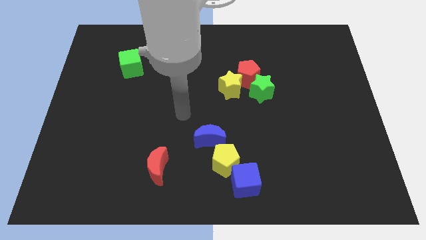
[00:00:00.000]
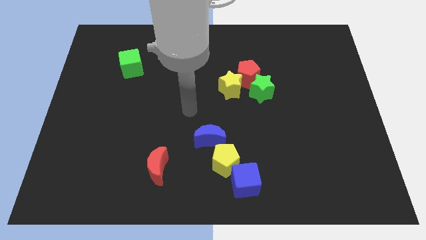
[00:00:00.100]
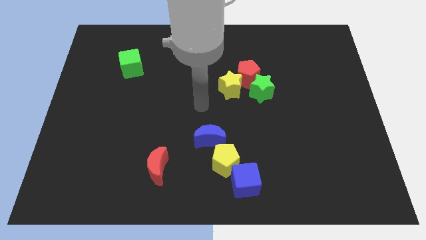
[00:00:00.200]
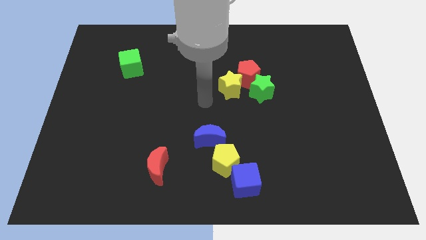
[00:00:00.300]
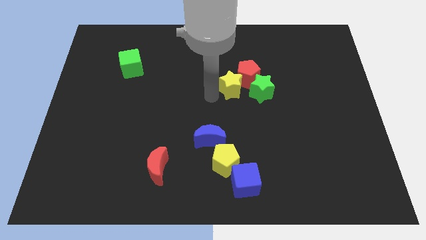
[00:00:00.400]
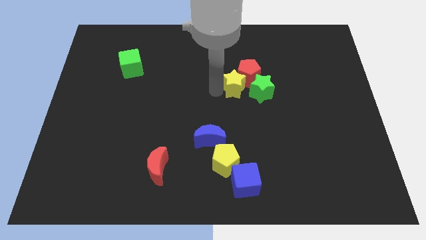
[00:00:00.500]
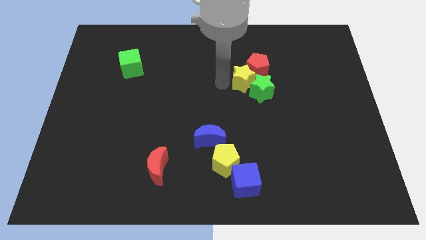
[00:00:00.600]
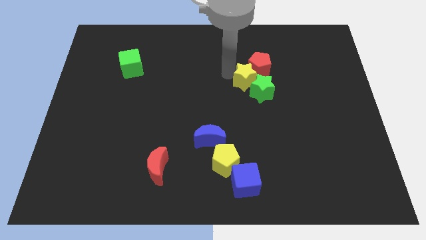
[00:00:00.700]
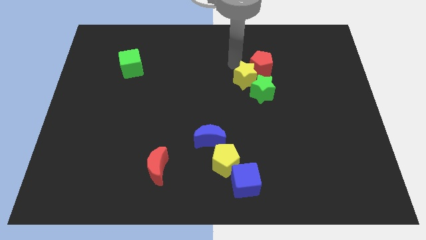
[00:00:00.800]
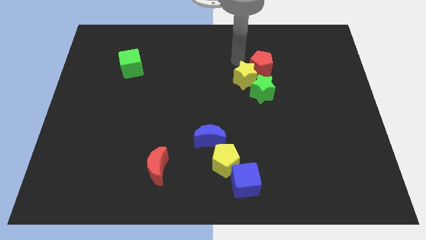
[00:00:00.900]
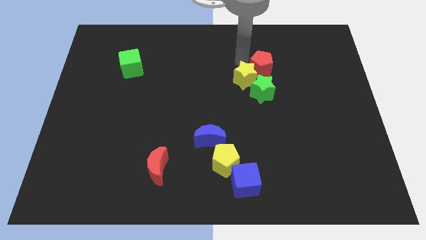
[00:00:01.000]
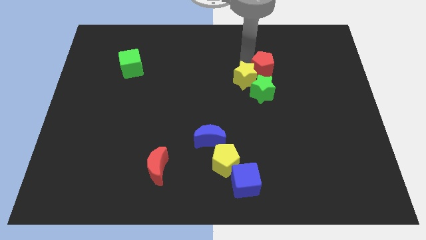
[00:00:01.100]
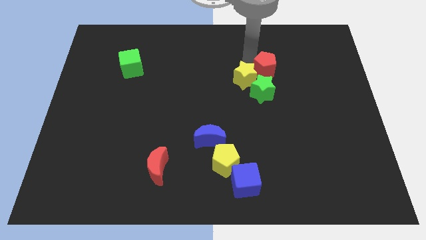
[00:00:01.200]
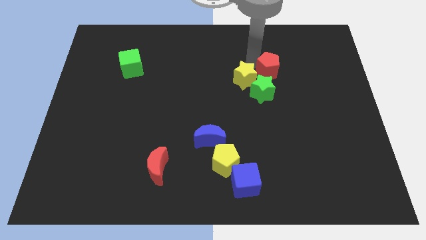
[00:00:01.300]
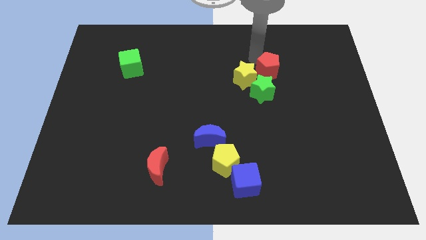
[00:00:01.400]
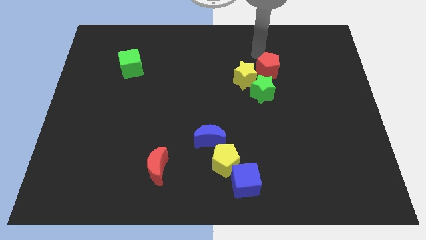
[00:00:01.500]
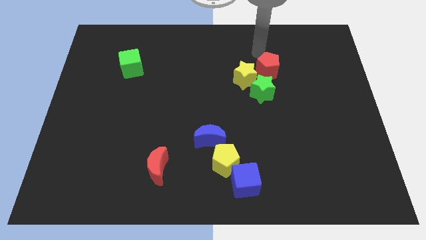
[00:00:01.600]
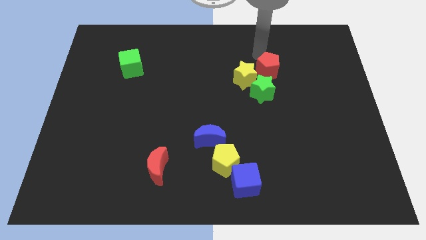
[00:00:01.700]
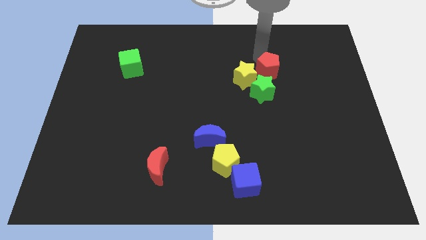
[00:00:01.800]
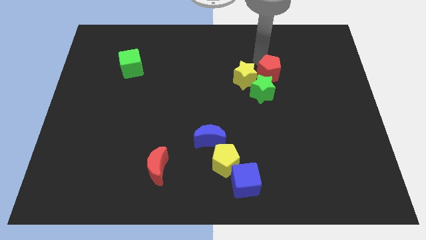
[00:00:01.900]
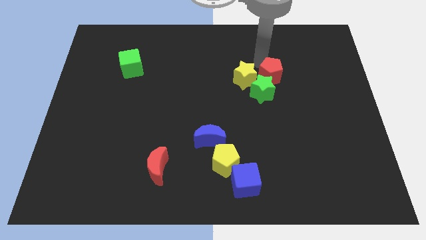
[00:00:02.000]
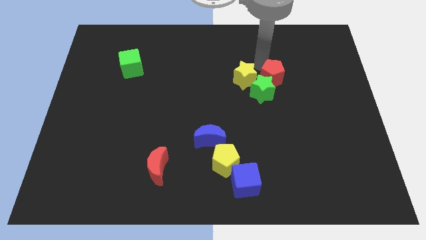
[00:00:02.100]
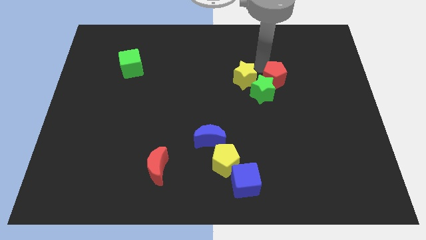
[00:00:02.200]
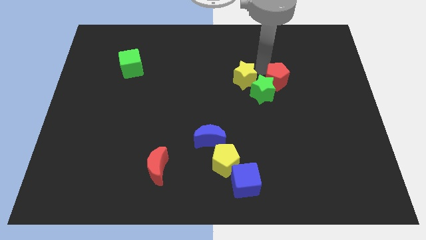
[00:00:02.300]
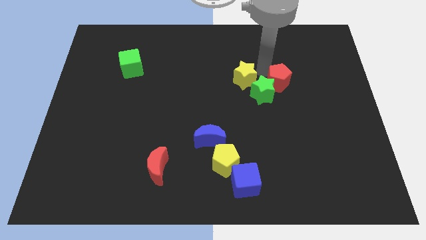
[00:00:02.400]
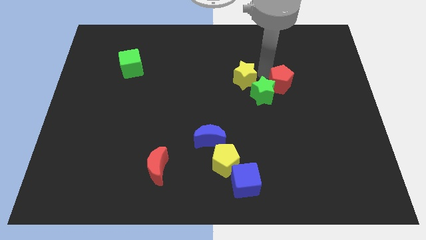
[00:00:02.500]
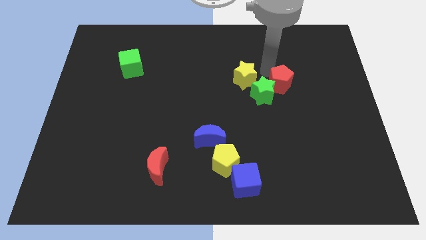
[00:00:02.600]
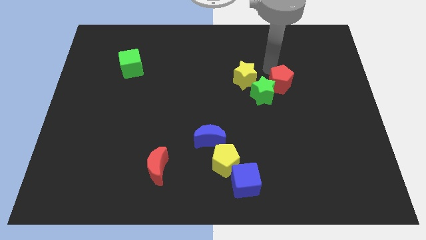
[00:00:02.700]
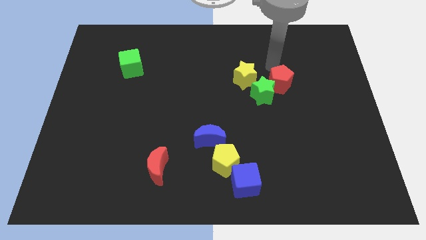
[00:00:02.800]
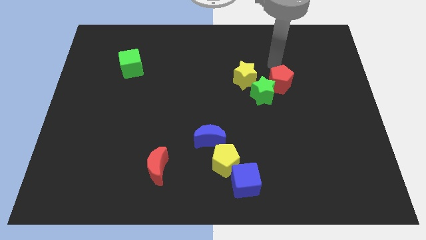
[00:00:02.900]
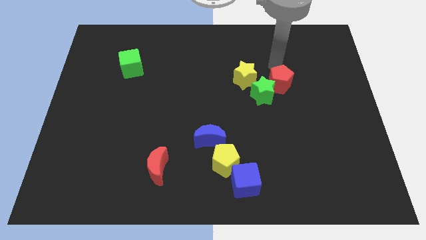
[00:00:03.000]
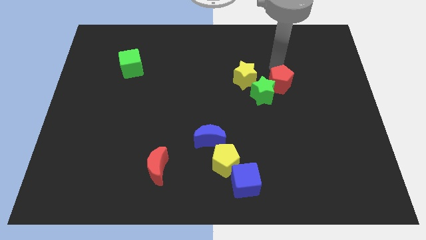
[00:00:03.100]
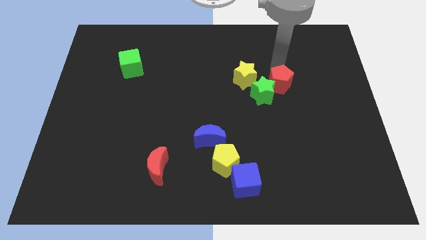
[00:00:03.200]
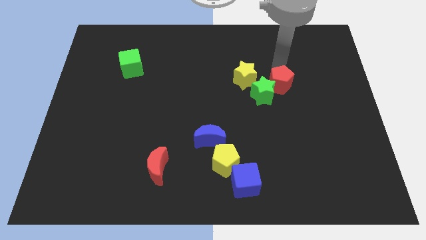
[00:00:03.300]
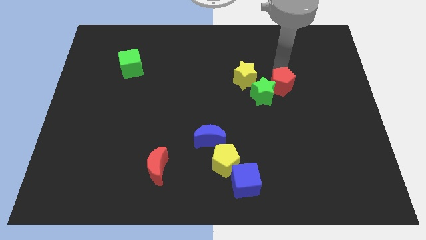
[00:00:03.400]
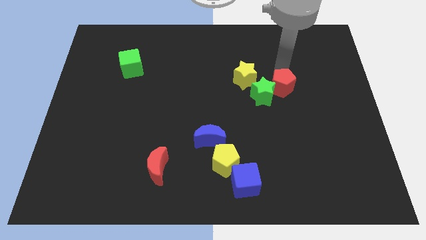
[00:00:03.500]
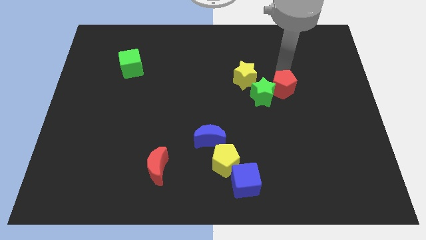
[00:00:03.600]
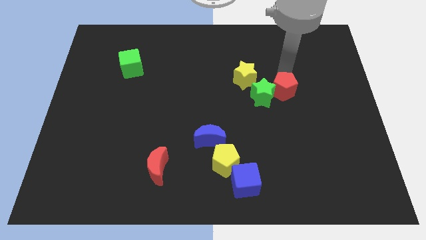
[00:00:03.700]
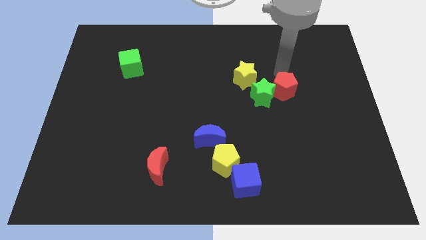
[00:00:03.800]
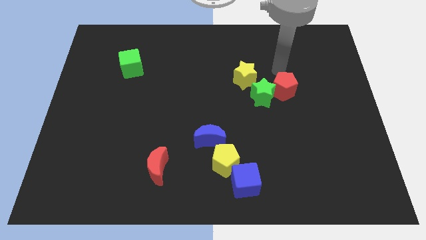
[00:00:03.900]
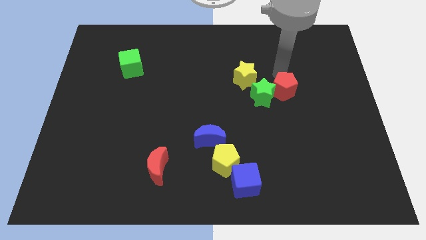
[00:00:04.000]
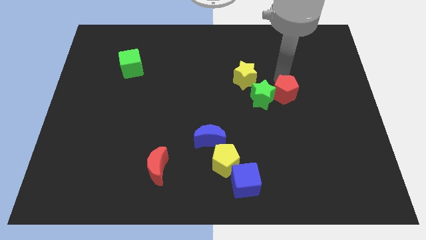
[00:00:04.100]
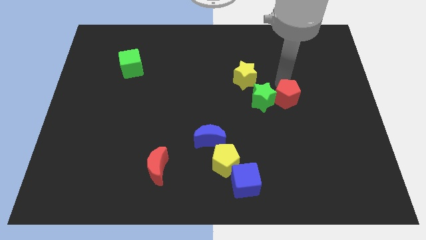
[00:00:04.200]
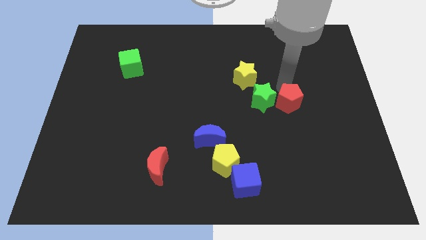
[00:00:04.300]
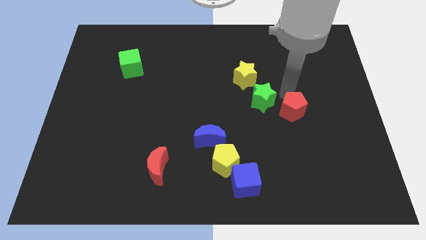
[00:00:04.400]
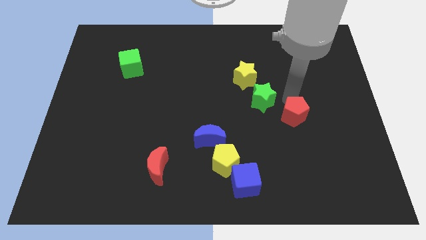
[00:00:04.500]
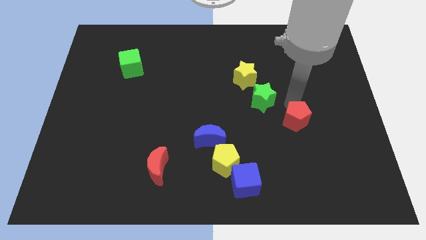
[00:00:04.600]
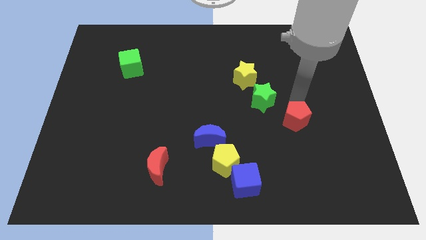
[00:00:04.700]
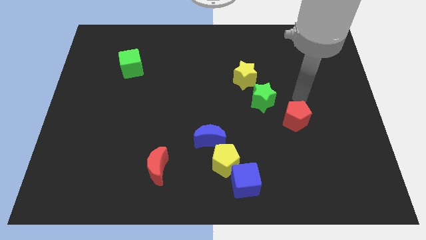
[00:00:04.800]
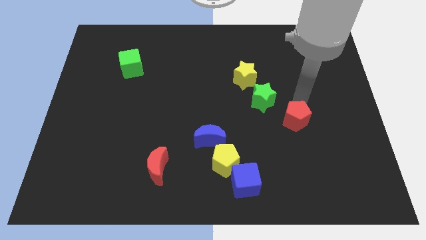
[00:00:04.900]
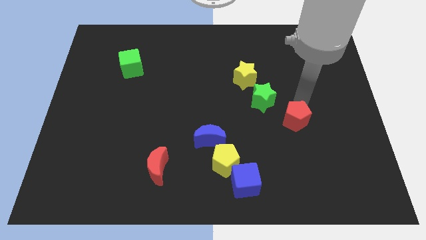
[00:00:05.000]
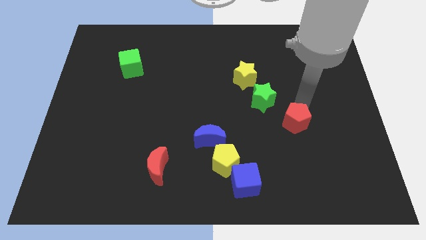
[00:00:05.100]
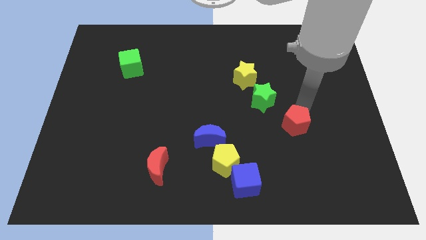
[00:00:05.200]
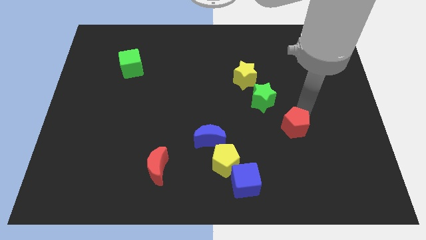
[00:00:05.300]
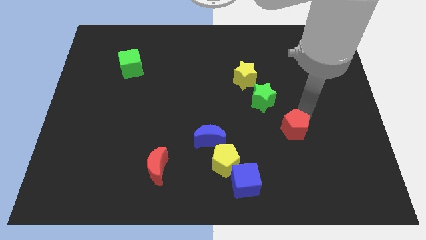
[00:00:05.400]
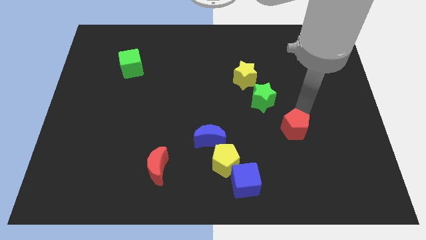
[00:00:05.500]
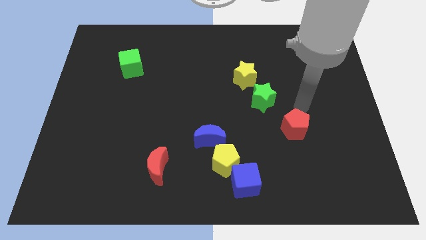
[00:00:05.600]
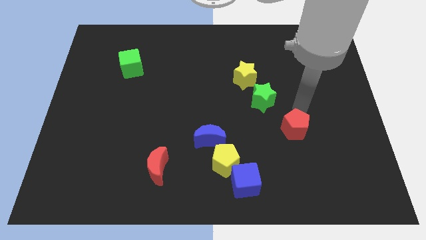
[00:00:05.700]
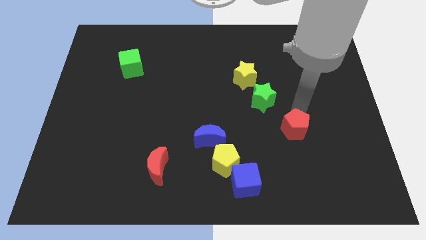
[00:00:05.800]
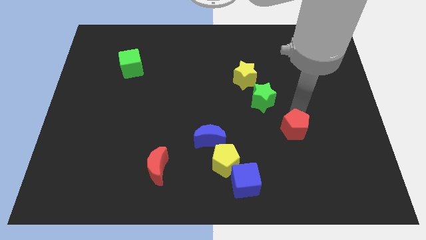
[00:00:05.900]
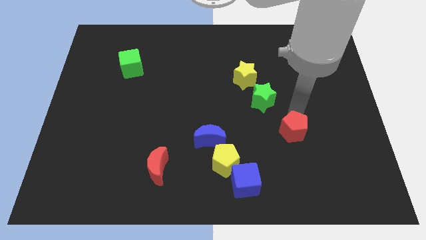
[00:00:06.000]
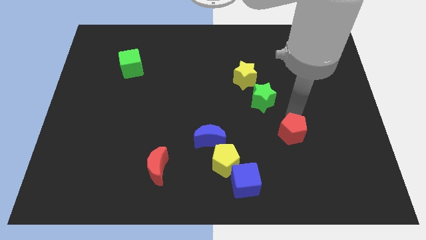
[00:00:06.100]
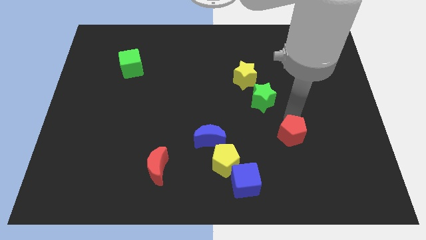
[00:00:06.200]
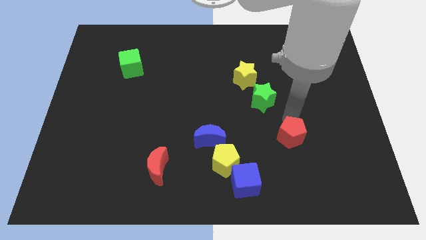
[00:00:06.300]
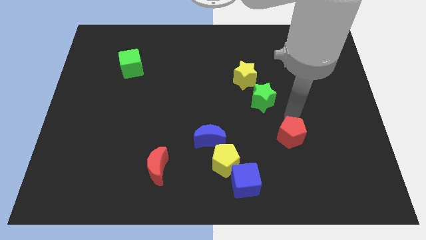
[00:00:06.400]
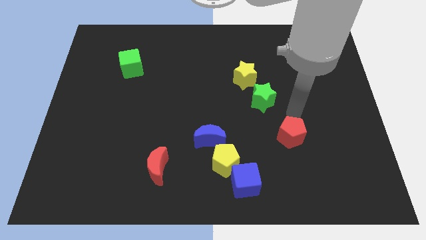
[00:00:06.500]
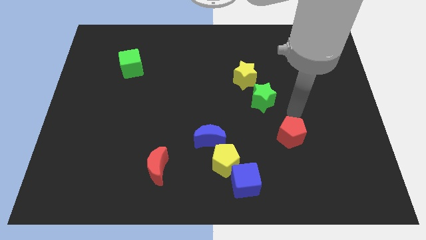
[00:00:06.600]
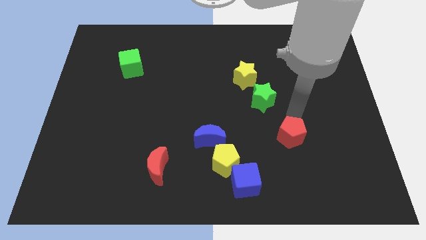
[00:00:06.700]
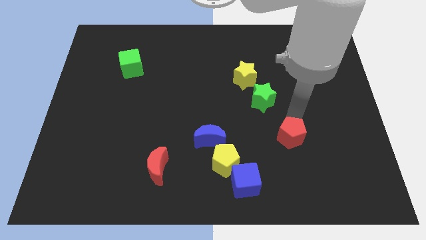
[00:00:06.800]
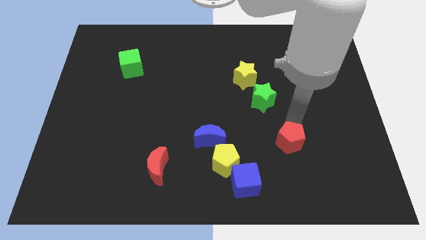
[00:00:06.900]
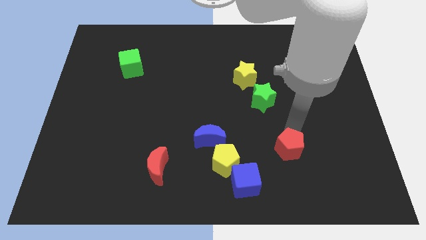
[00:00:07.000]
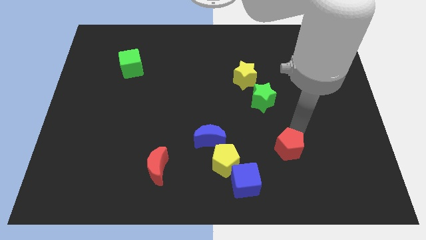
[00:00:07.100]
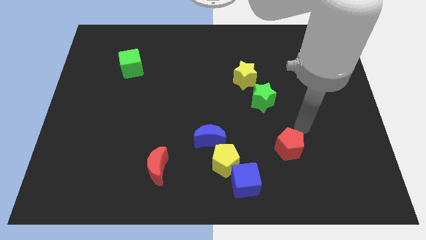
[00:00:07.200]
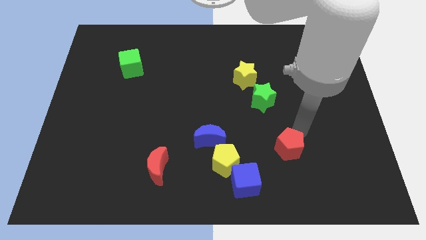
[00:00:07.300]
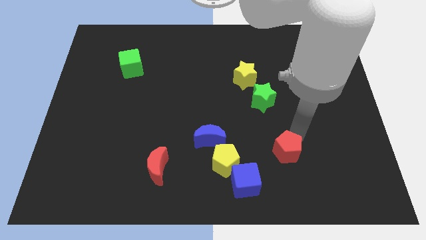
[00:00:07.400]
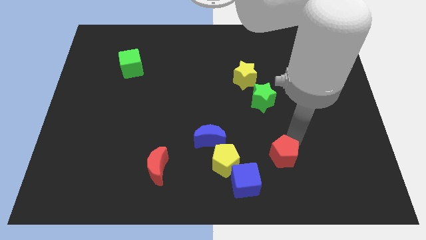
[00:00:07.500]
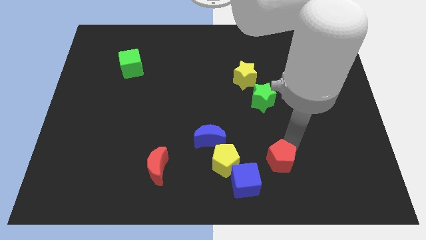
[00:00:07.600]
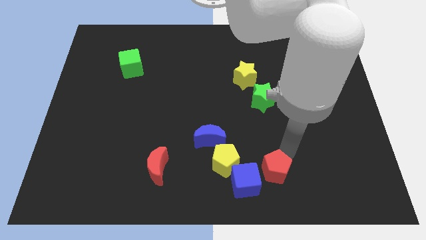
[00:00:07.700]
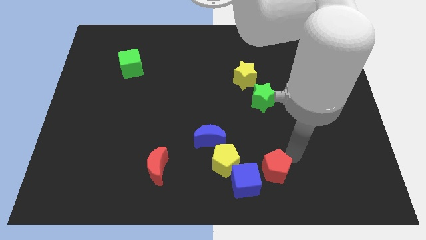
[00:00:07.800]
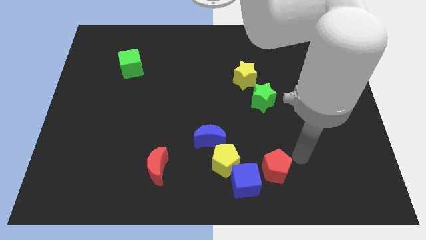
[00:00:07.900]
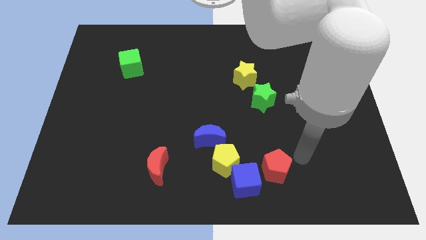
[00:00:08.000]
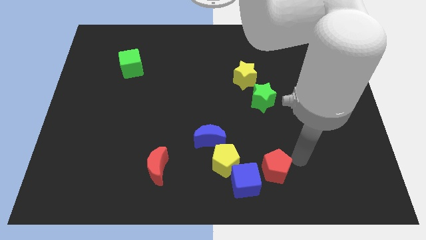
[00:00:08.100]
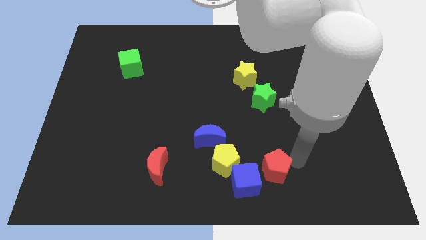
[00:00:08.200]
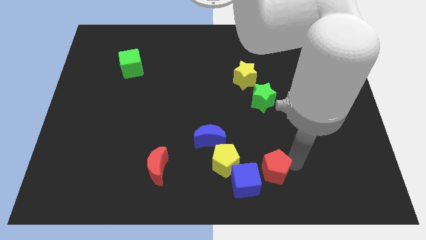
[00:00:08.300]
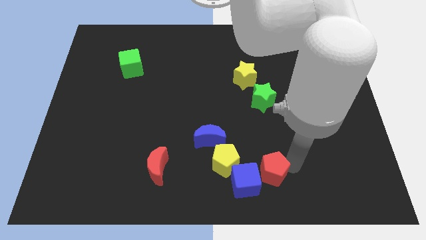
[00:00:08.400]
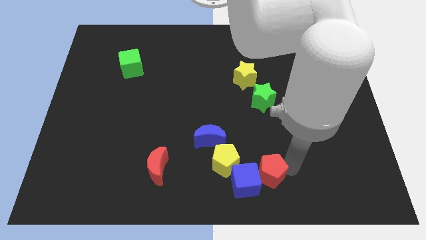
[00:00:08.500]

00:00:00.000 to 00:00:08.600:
slide the red pentagon to the blue cube
